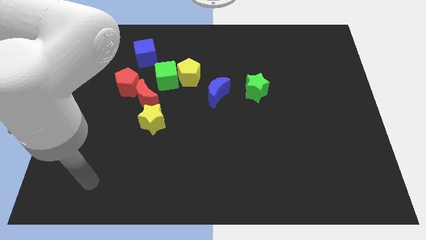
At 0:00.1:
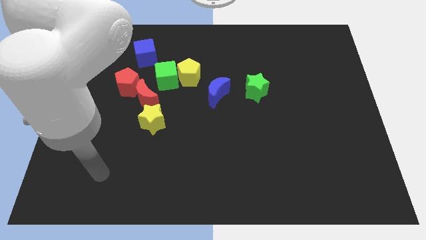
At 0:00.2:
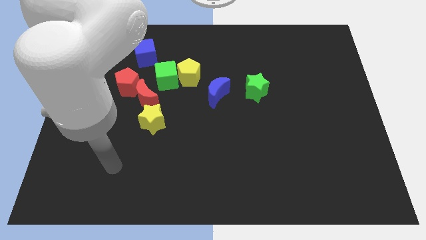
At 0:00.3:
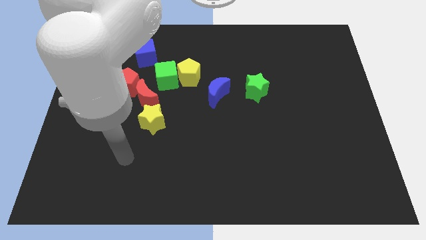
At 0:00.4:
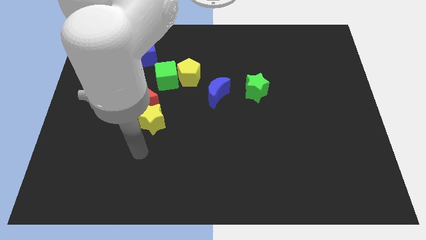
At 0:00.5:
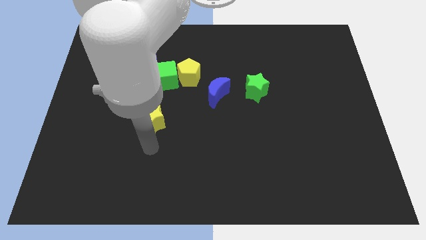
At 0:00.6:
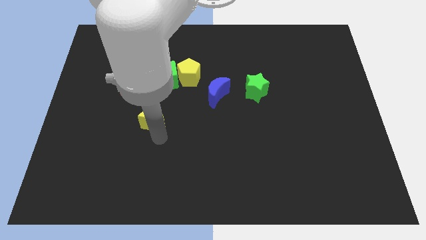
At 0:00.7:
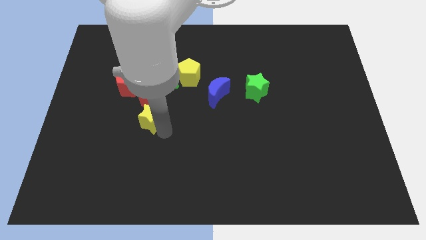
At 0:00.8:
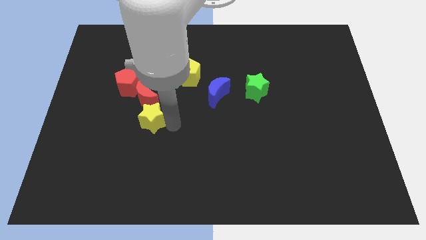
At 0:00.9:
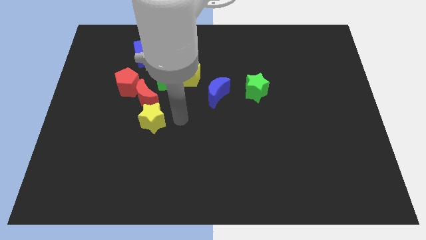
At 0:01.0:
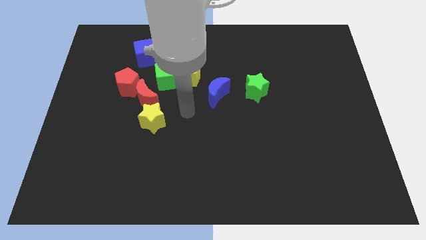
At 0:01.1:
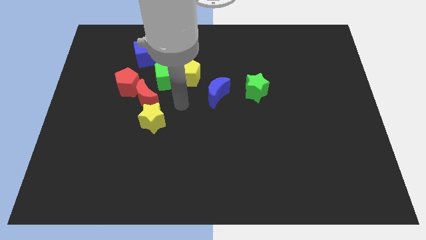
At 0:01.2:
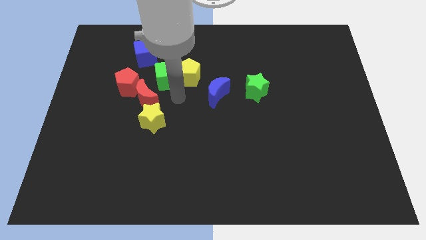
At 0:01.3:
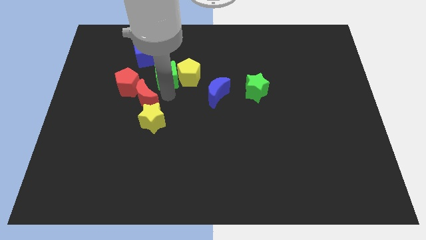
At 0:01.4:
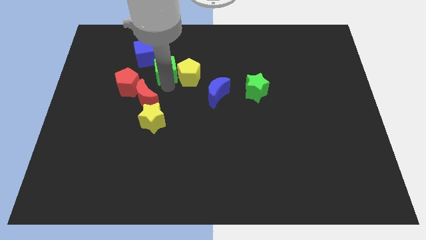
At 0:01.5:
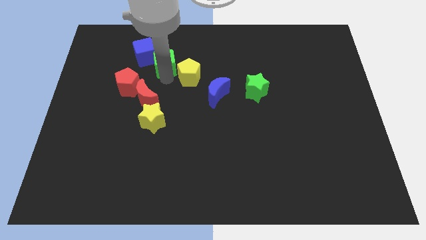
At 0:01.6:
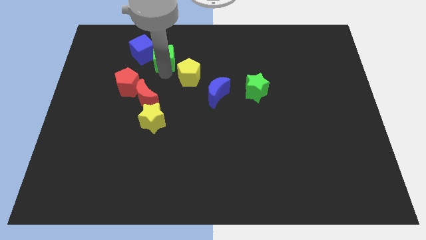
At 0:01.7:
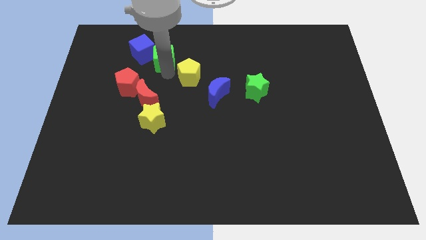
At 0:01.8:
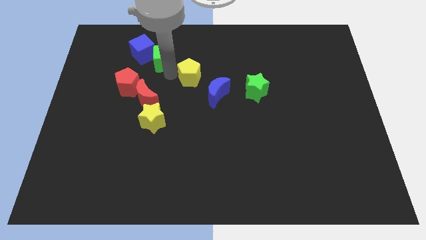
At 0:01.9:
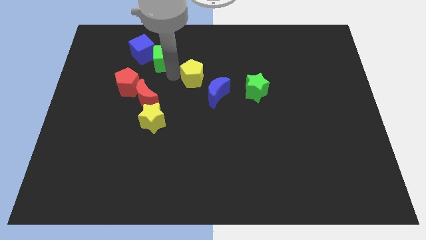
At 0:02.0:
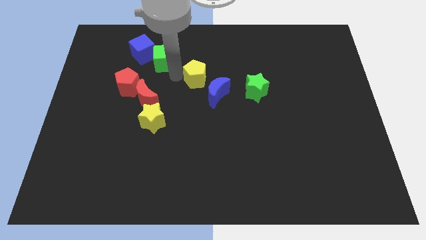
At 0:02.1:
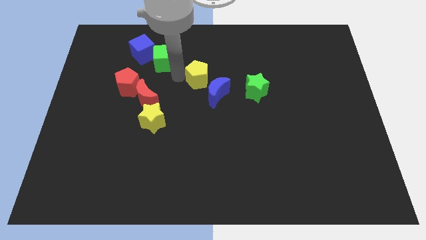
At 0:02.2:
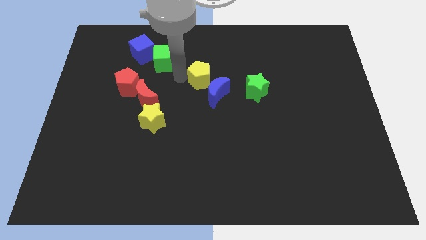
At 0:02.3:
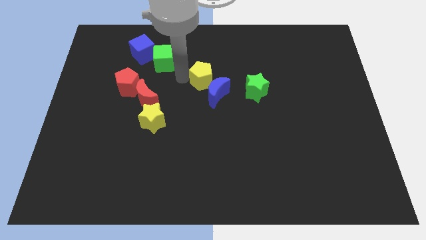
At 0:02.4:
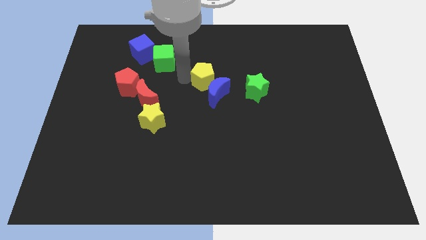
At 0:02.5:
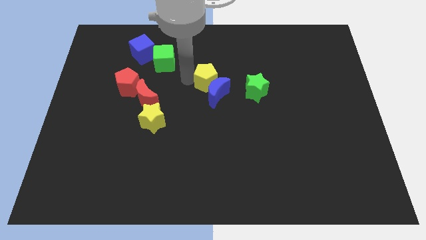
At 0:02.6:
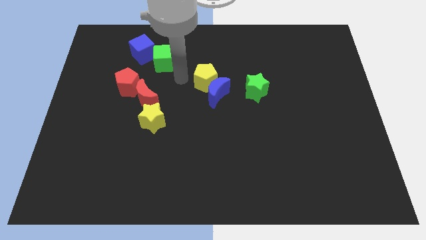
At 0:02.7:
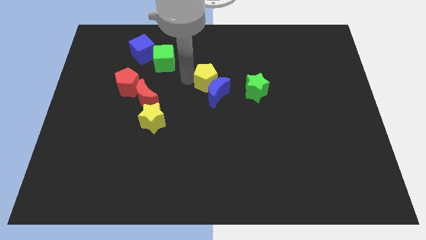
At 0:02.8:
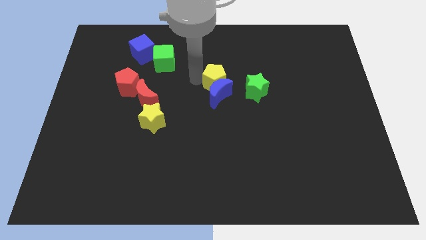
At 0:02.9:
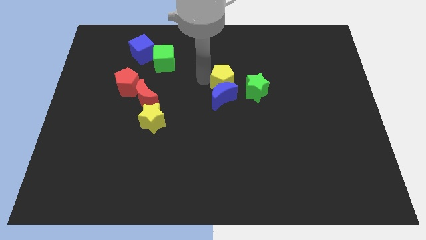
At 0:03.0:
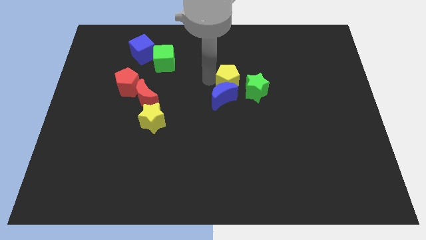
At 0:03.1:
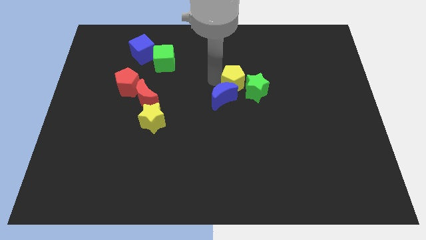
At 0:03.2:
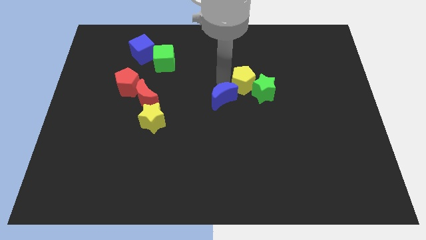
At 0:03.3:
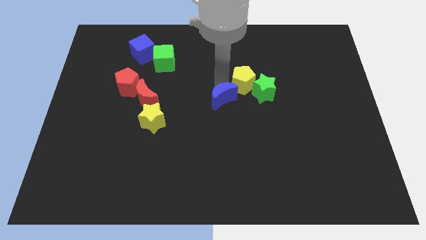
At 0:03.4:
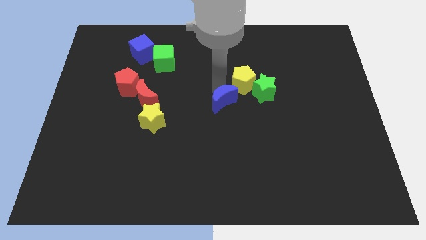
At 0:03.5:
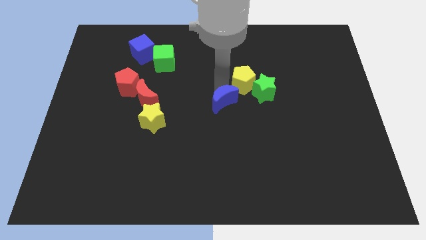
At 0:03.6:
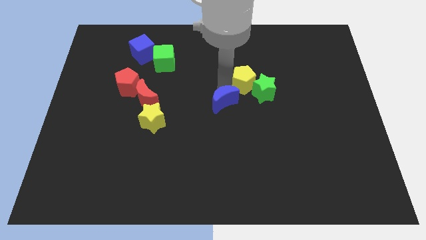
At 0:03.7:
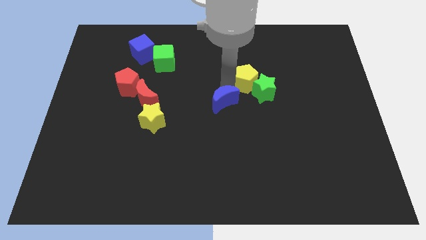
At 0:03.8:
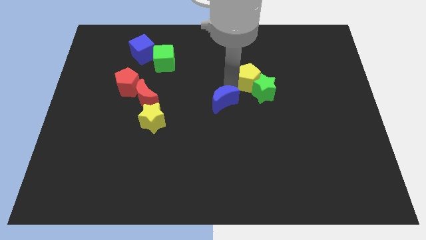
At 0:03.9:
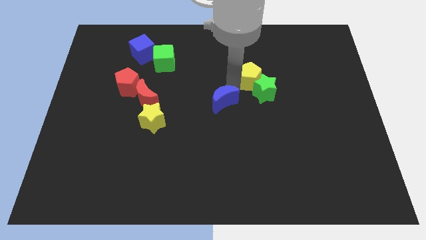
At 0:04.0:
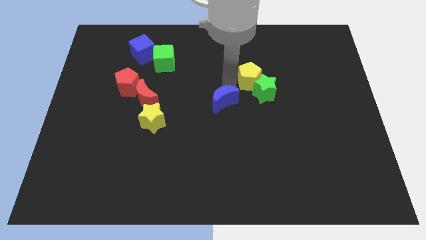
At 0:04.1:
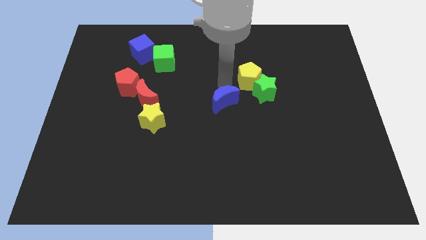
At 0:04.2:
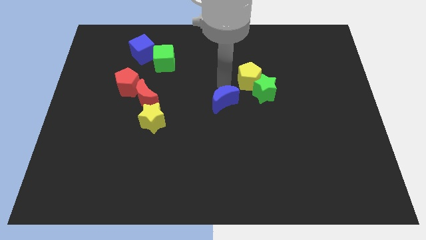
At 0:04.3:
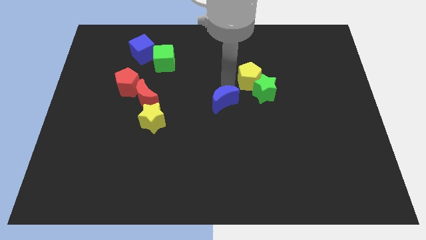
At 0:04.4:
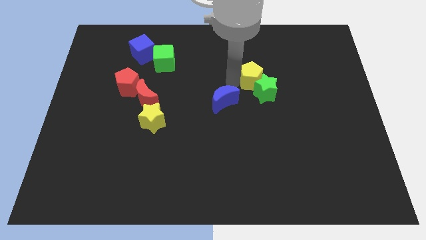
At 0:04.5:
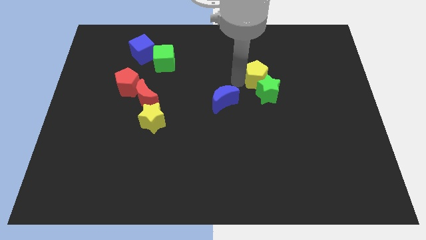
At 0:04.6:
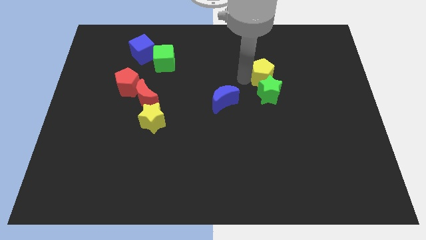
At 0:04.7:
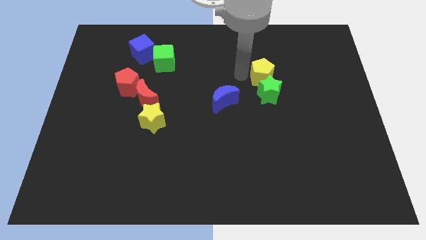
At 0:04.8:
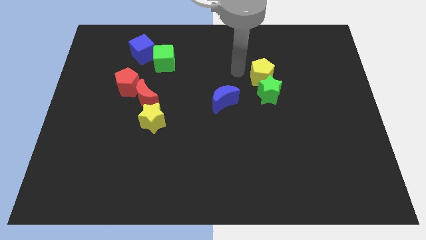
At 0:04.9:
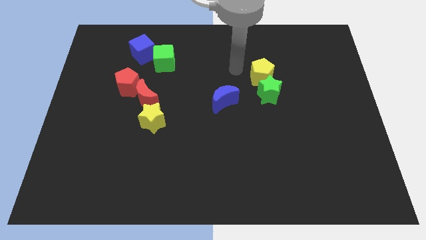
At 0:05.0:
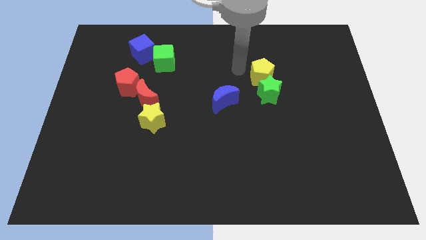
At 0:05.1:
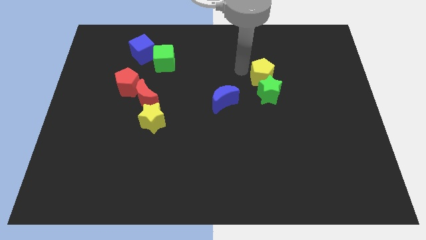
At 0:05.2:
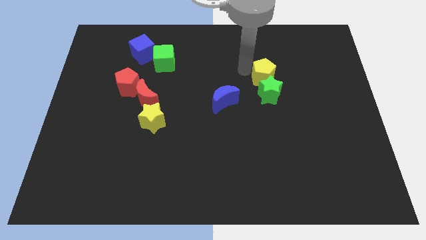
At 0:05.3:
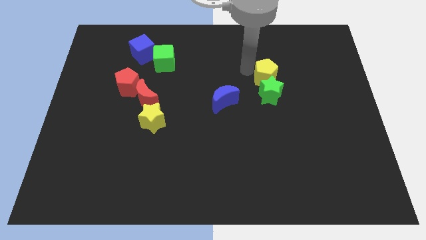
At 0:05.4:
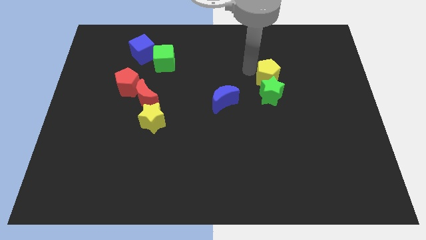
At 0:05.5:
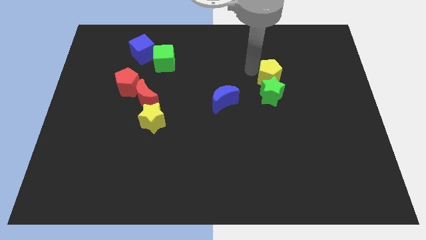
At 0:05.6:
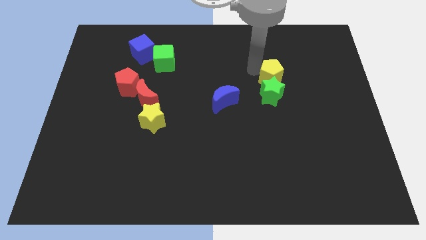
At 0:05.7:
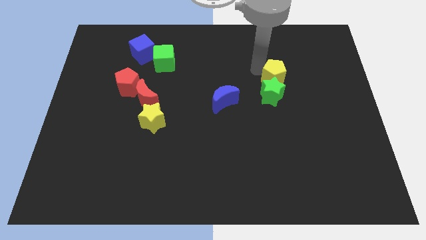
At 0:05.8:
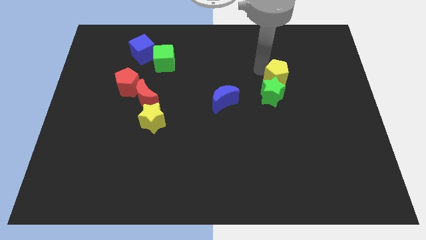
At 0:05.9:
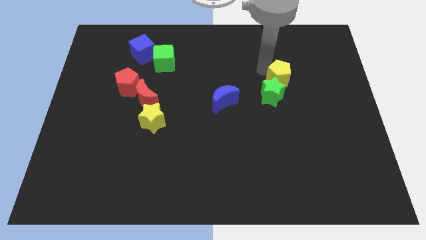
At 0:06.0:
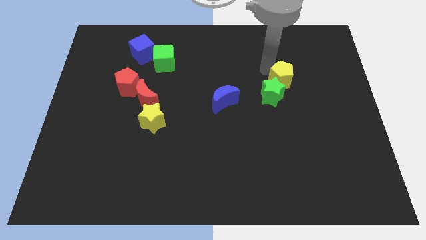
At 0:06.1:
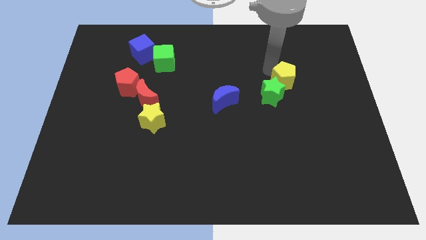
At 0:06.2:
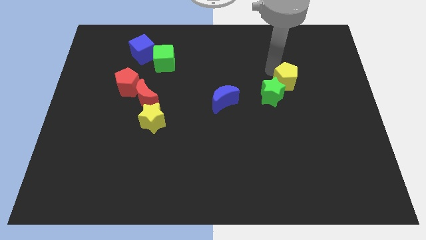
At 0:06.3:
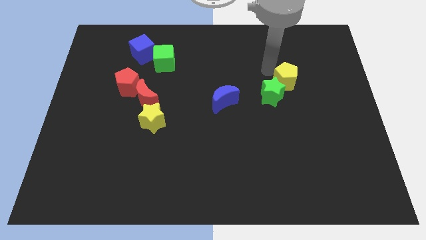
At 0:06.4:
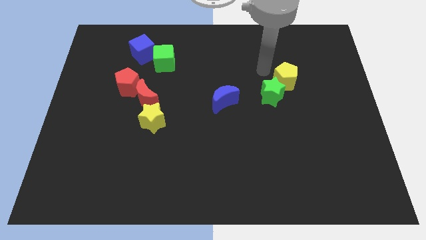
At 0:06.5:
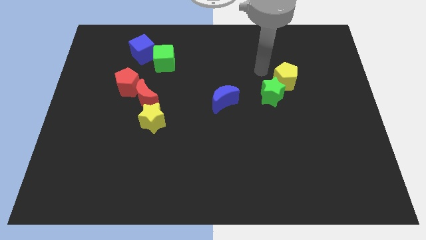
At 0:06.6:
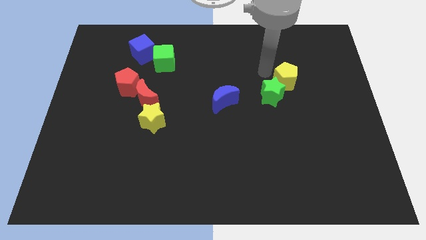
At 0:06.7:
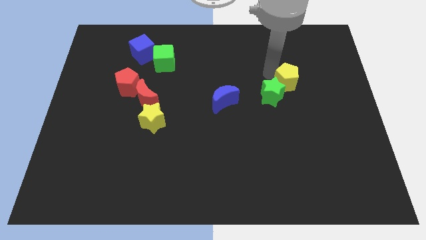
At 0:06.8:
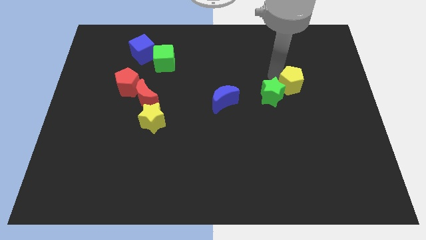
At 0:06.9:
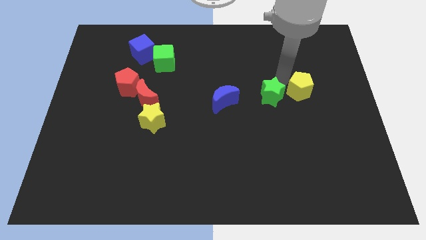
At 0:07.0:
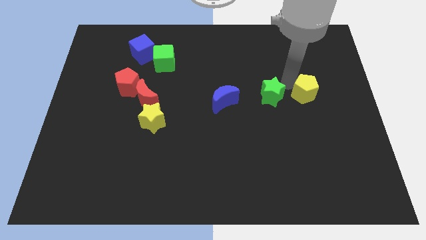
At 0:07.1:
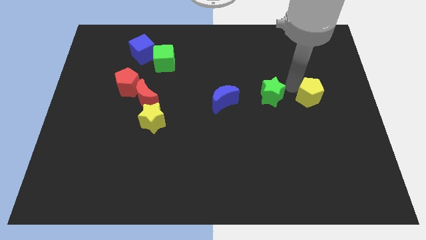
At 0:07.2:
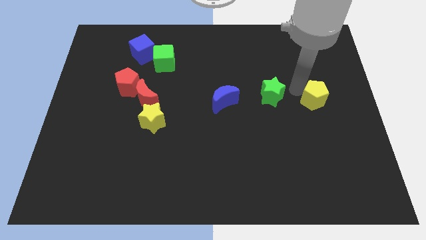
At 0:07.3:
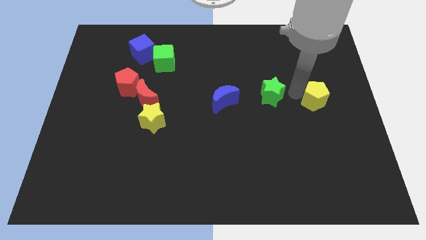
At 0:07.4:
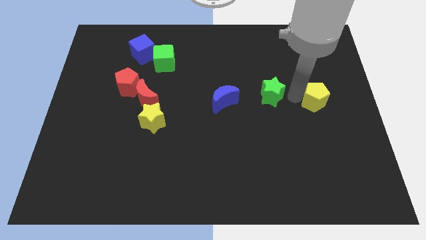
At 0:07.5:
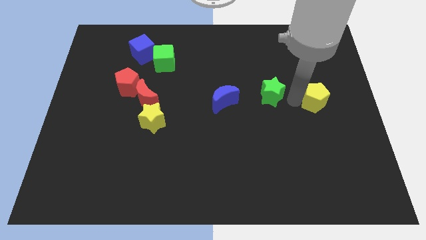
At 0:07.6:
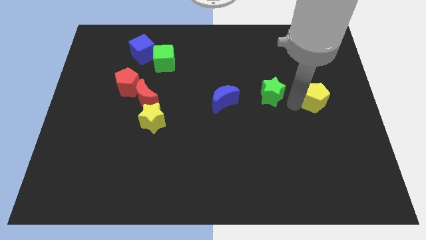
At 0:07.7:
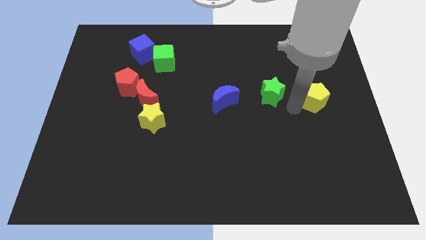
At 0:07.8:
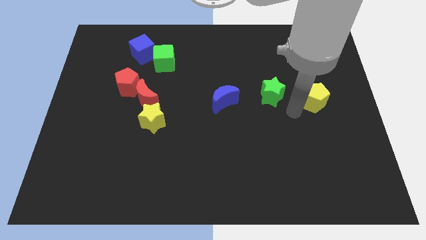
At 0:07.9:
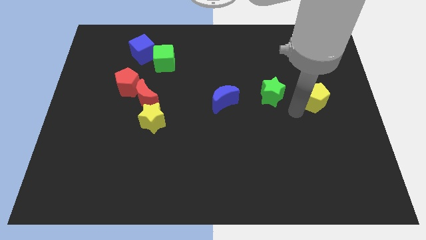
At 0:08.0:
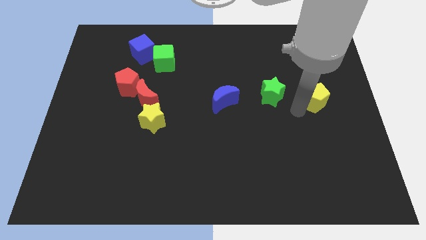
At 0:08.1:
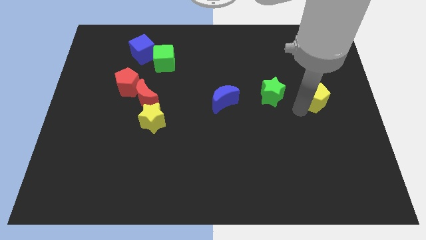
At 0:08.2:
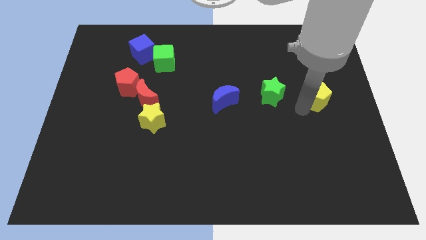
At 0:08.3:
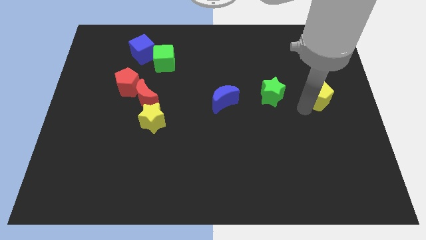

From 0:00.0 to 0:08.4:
put the yellow pentagon to the right side
